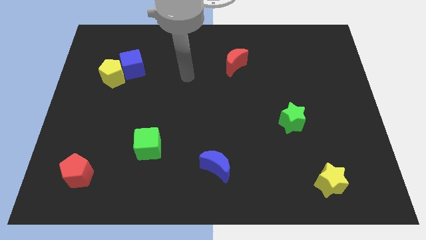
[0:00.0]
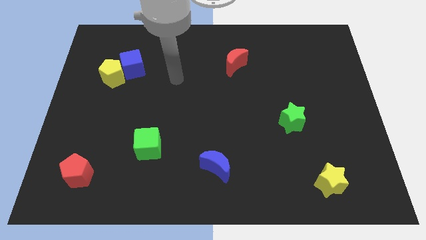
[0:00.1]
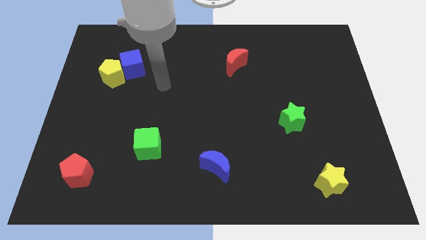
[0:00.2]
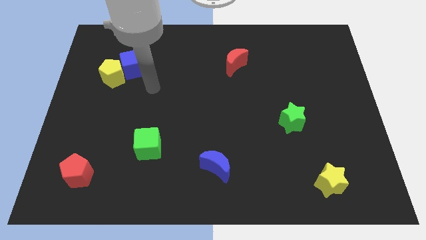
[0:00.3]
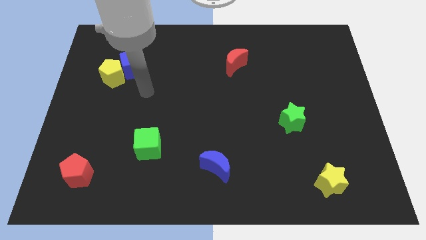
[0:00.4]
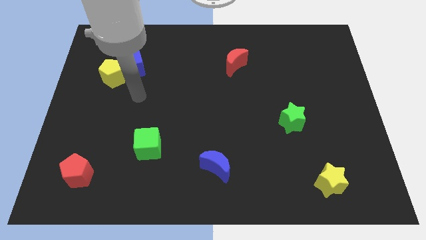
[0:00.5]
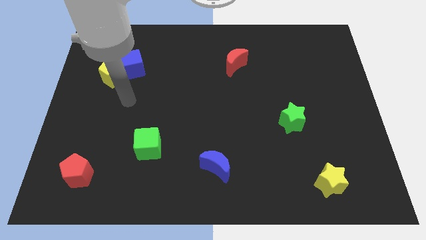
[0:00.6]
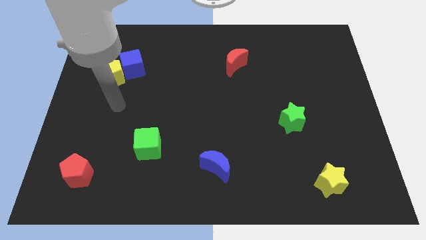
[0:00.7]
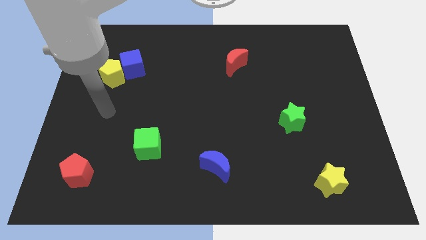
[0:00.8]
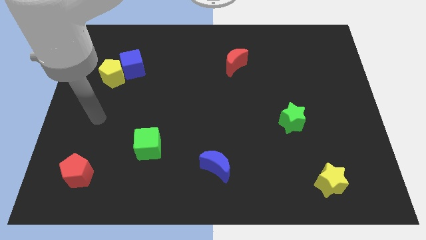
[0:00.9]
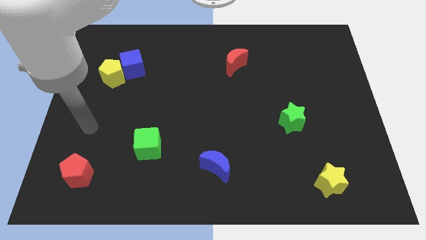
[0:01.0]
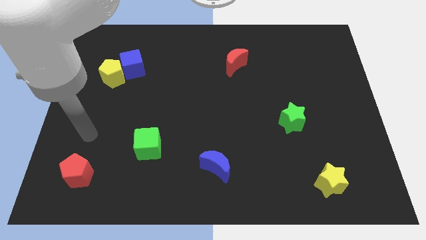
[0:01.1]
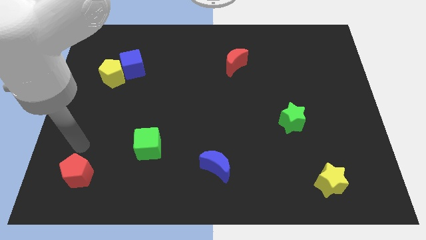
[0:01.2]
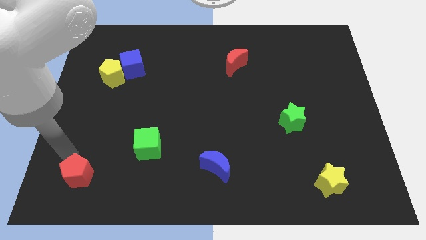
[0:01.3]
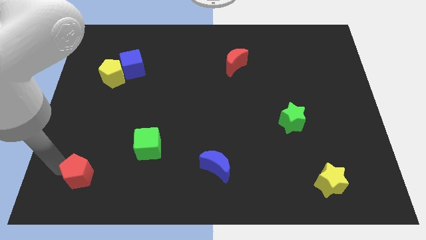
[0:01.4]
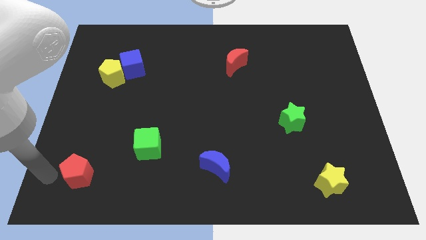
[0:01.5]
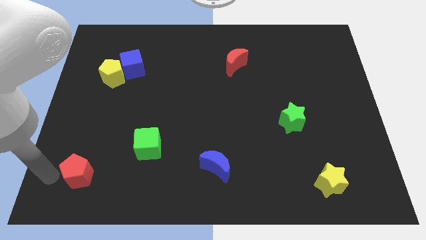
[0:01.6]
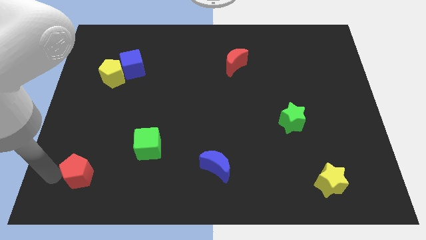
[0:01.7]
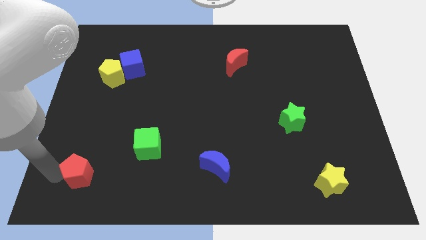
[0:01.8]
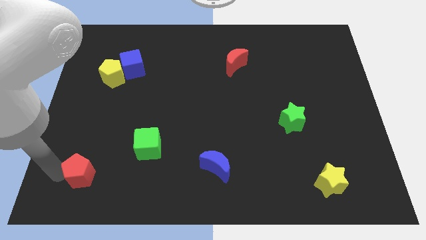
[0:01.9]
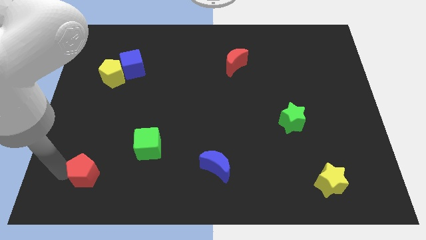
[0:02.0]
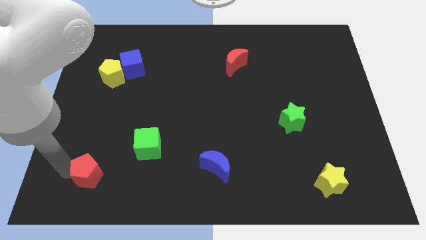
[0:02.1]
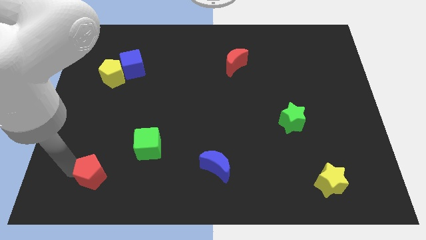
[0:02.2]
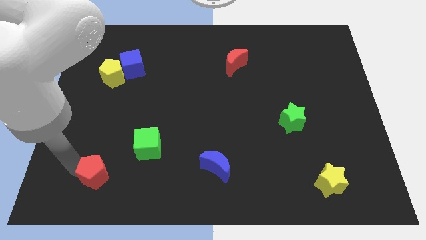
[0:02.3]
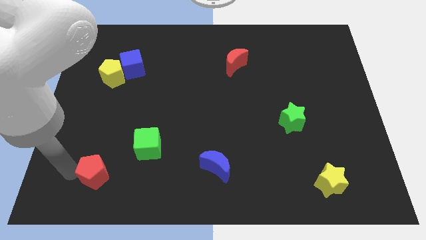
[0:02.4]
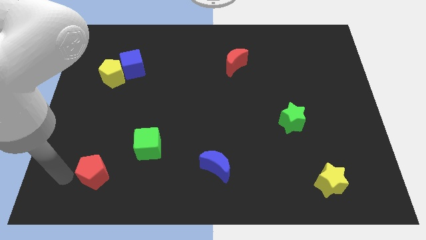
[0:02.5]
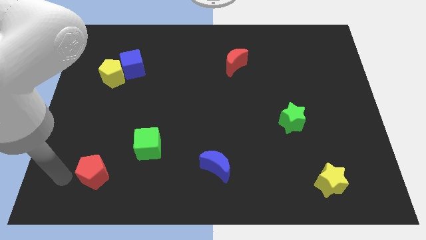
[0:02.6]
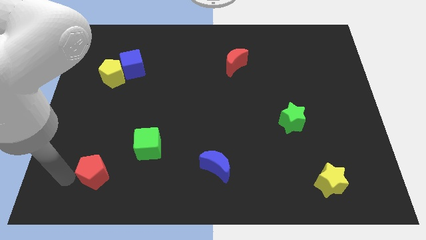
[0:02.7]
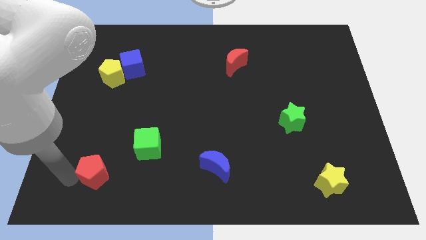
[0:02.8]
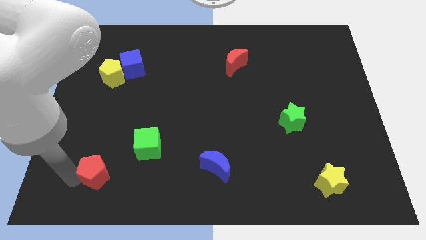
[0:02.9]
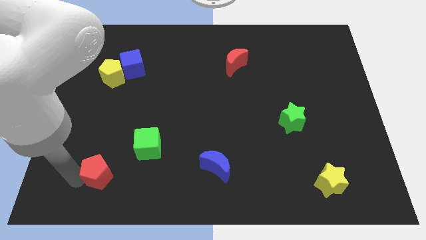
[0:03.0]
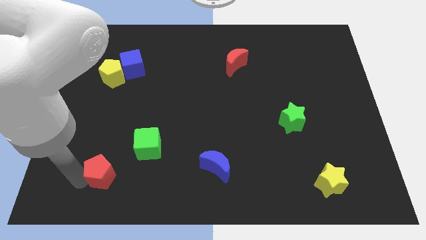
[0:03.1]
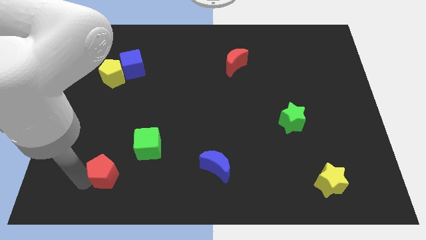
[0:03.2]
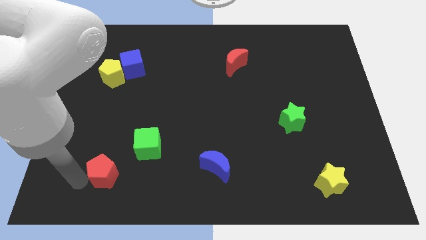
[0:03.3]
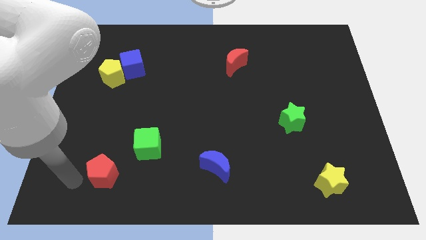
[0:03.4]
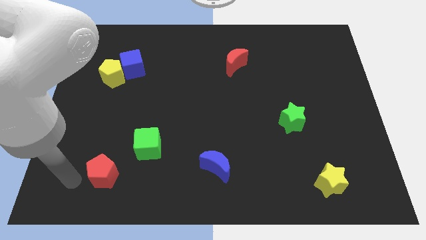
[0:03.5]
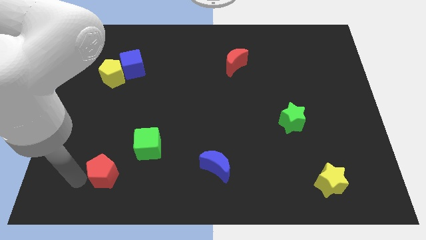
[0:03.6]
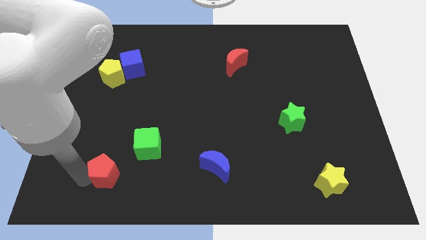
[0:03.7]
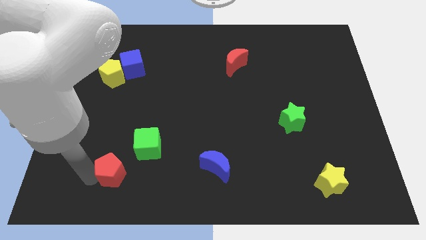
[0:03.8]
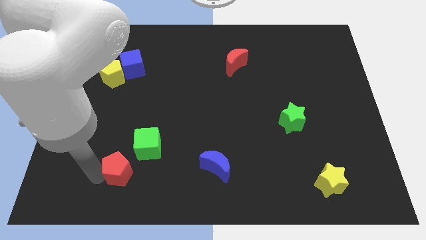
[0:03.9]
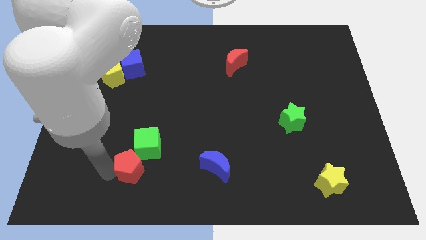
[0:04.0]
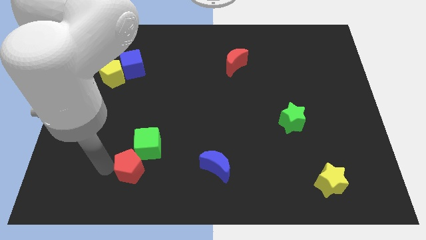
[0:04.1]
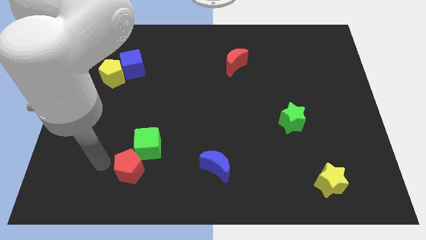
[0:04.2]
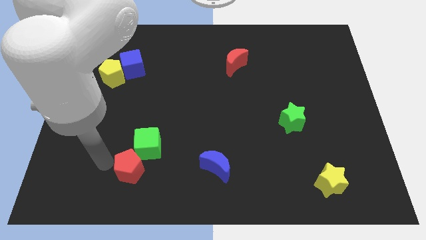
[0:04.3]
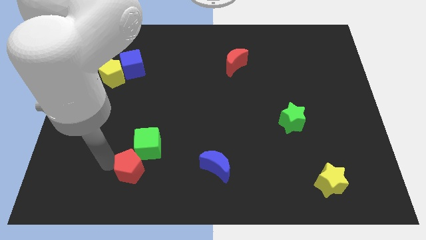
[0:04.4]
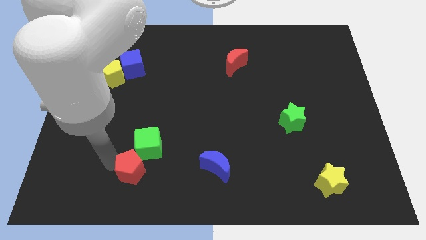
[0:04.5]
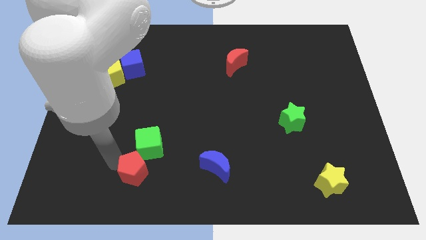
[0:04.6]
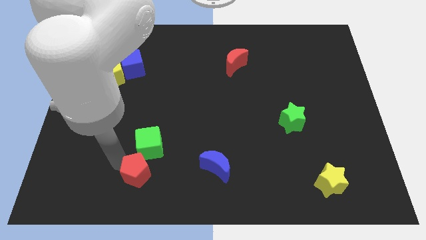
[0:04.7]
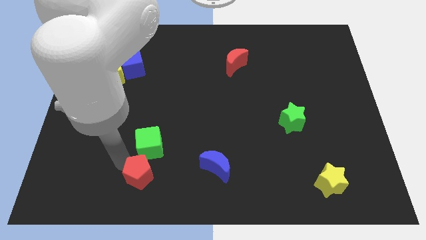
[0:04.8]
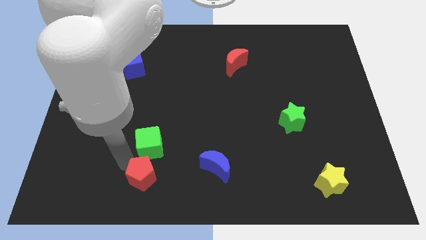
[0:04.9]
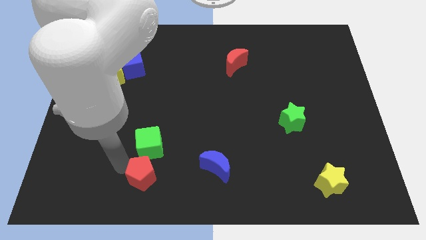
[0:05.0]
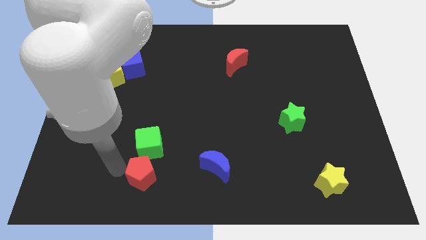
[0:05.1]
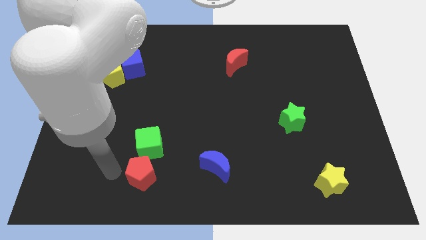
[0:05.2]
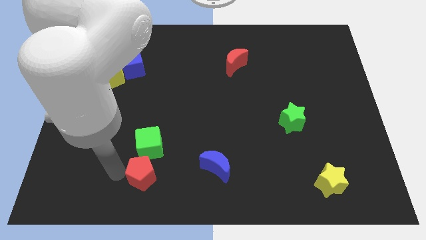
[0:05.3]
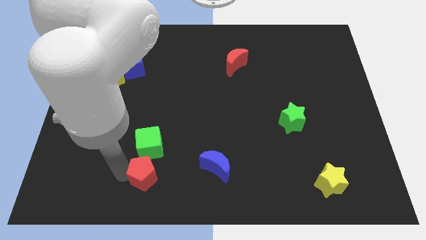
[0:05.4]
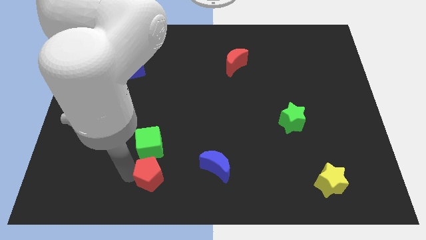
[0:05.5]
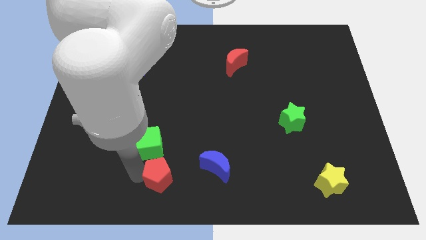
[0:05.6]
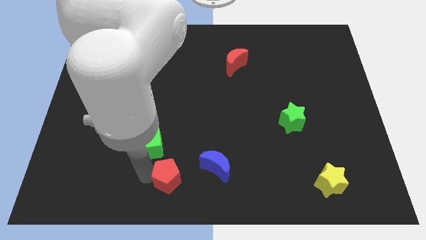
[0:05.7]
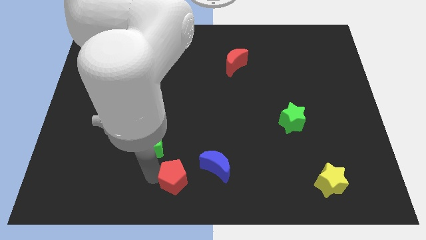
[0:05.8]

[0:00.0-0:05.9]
push the red pentagon to the right

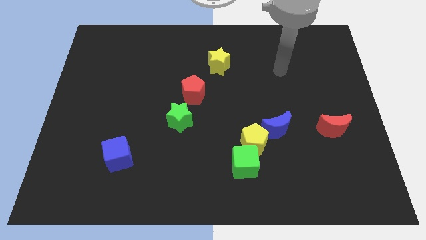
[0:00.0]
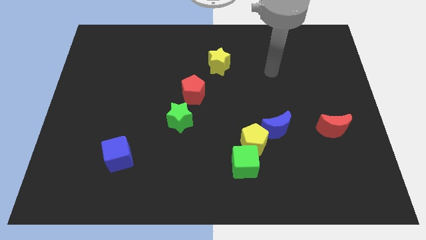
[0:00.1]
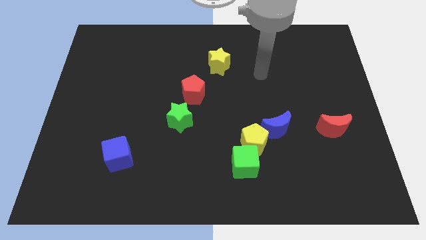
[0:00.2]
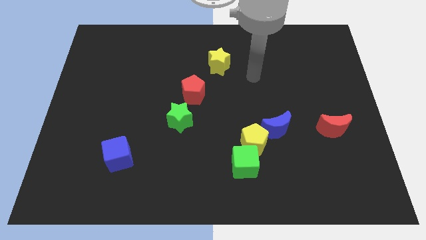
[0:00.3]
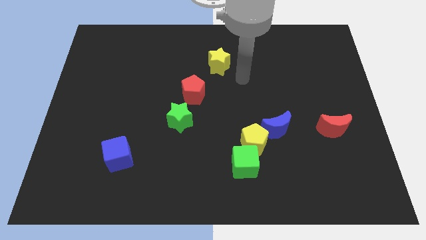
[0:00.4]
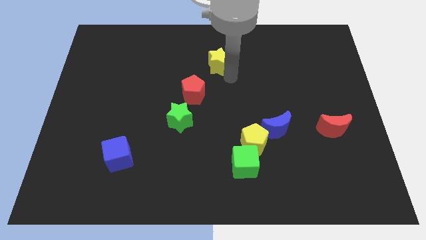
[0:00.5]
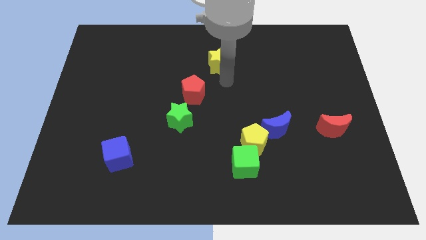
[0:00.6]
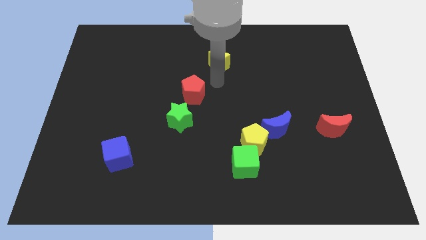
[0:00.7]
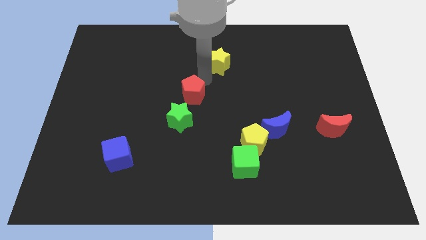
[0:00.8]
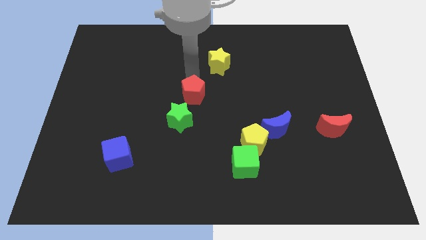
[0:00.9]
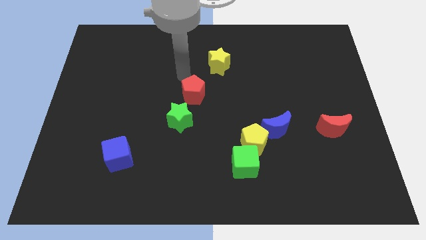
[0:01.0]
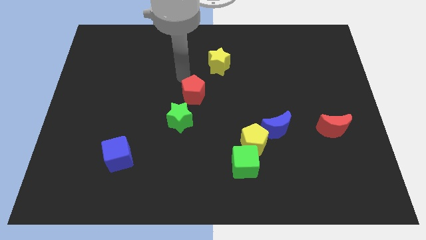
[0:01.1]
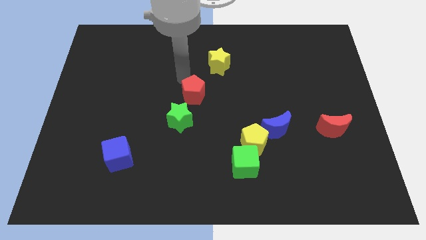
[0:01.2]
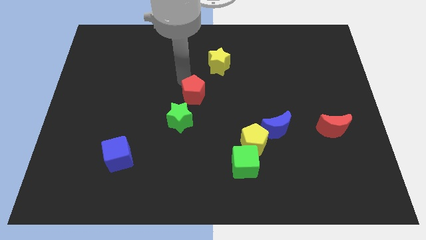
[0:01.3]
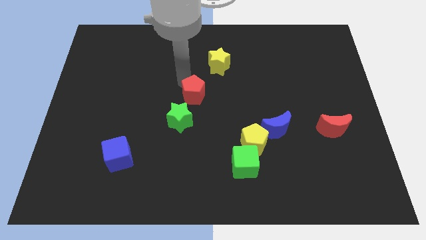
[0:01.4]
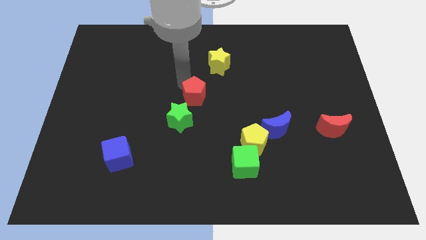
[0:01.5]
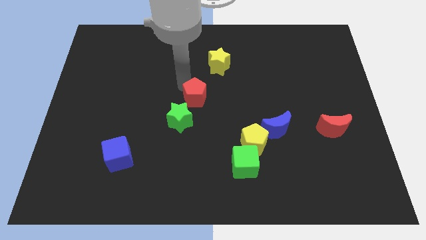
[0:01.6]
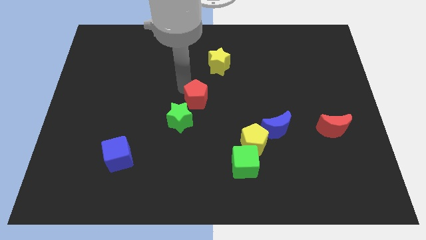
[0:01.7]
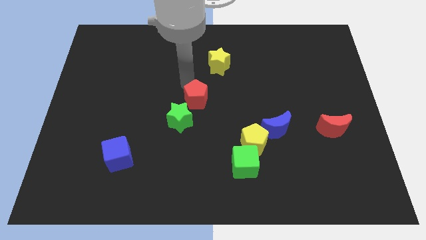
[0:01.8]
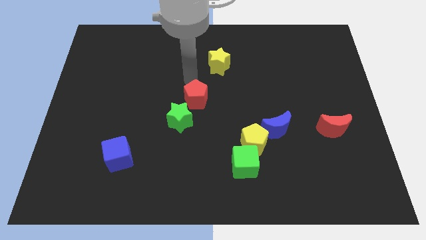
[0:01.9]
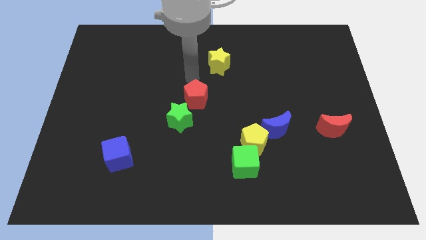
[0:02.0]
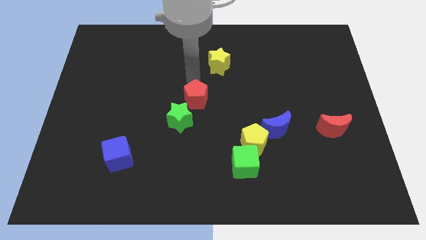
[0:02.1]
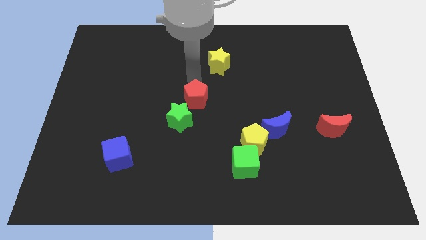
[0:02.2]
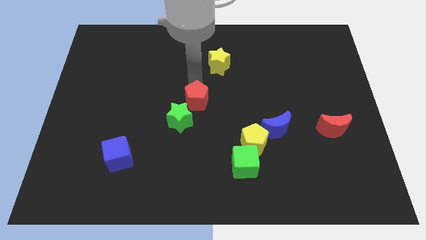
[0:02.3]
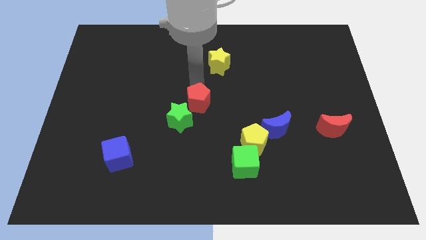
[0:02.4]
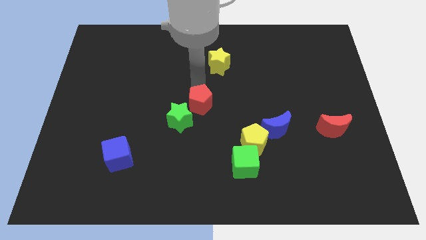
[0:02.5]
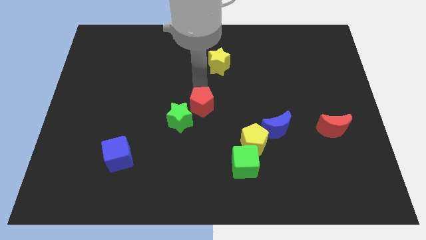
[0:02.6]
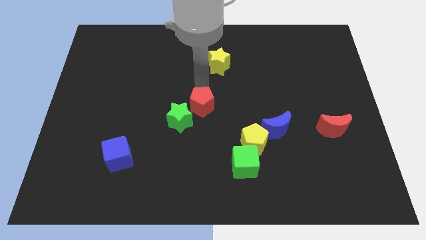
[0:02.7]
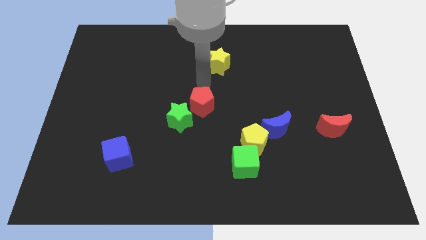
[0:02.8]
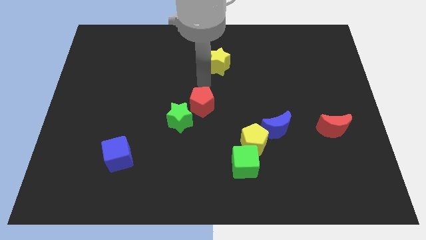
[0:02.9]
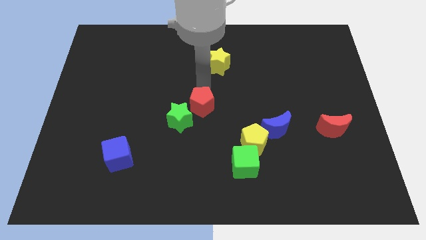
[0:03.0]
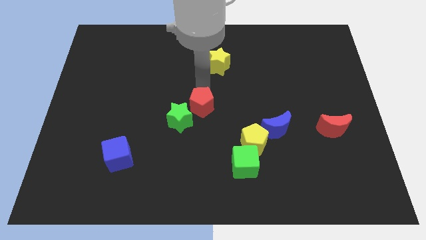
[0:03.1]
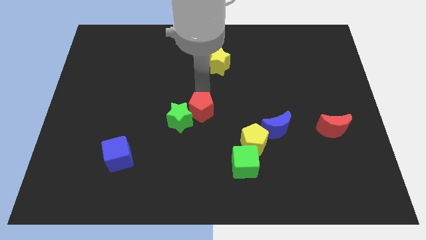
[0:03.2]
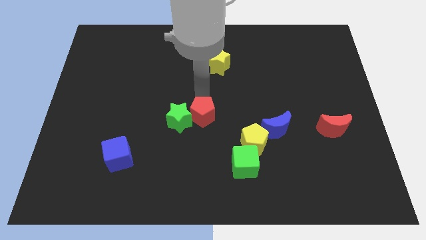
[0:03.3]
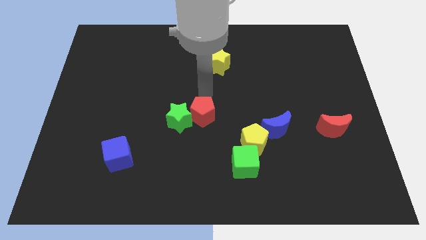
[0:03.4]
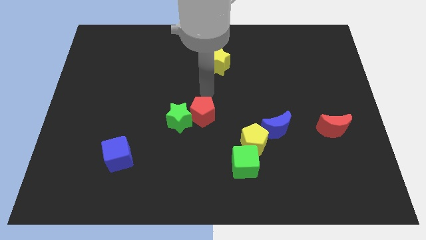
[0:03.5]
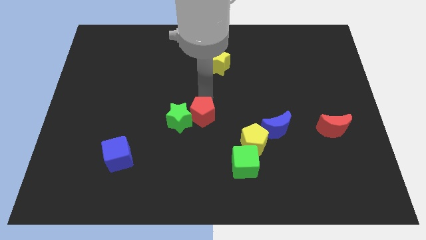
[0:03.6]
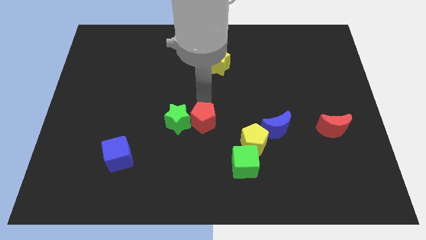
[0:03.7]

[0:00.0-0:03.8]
push the red pentagon down a little bit
